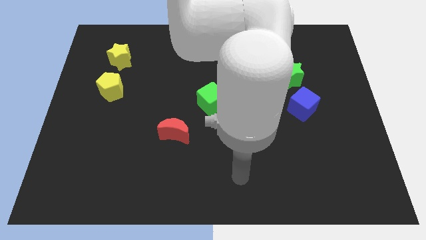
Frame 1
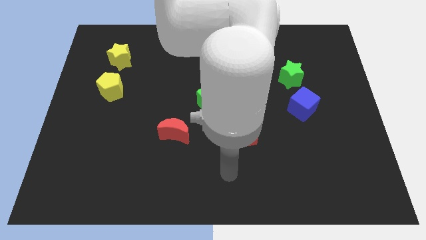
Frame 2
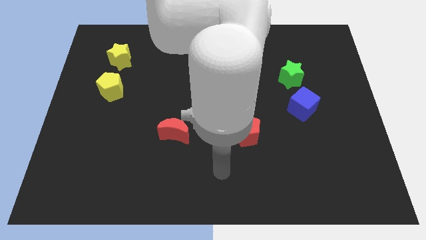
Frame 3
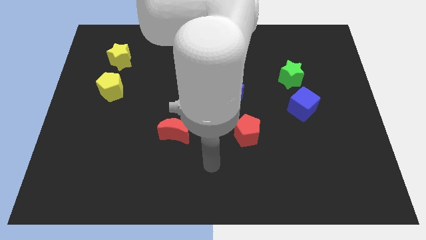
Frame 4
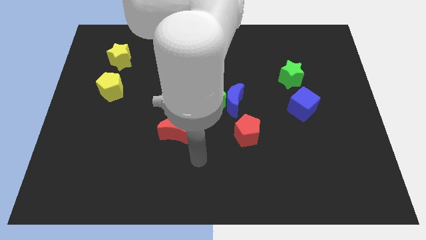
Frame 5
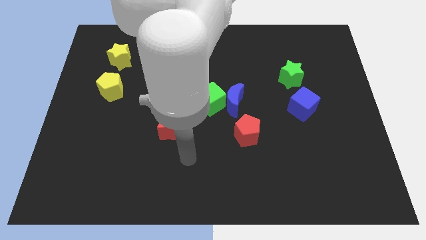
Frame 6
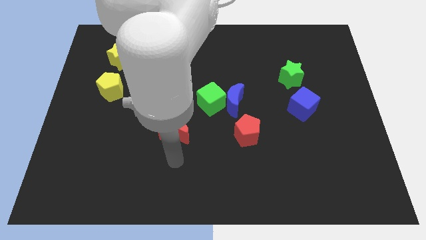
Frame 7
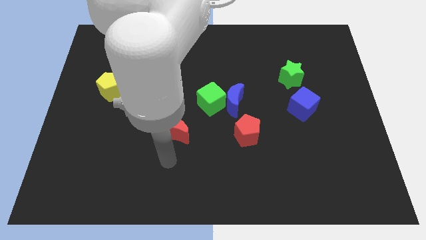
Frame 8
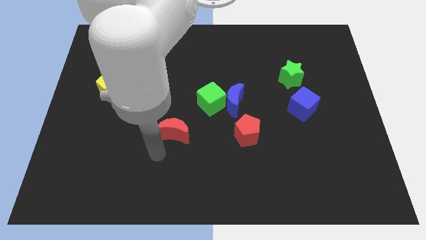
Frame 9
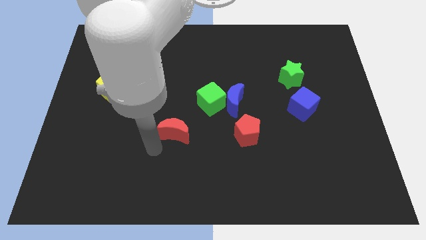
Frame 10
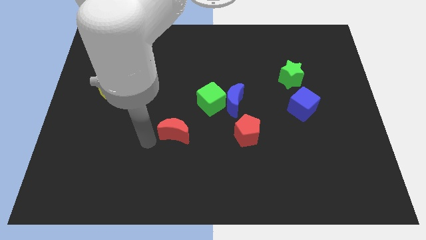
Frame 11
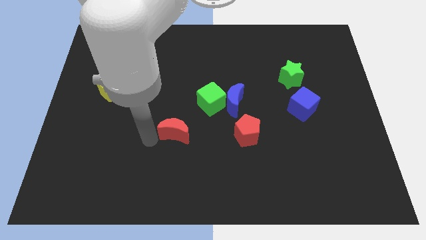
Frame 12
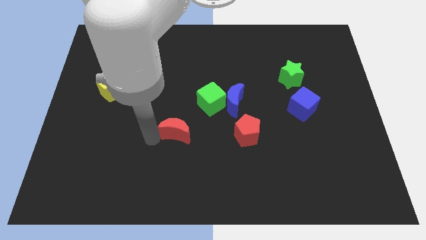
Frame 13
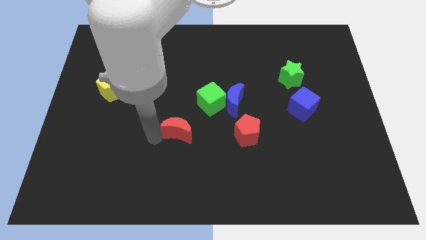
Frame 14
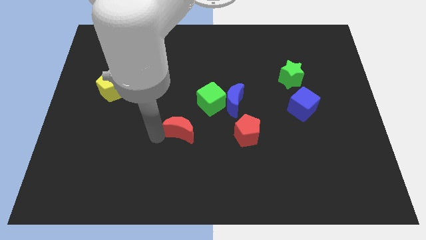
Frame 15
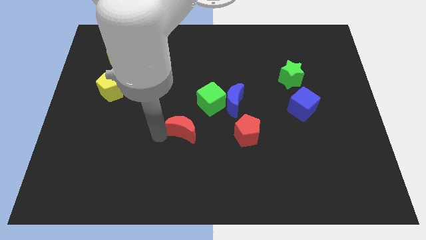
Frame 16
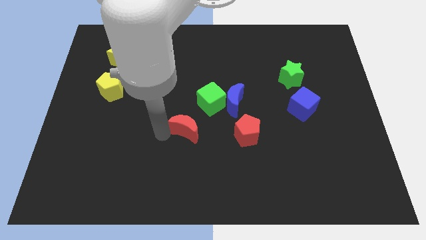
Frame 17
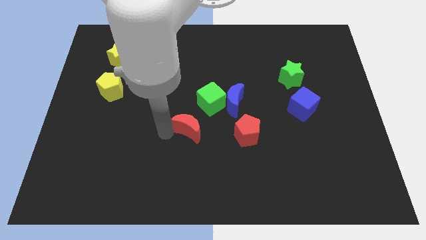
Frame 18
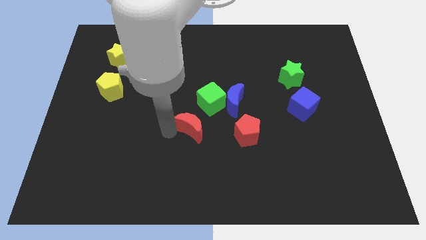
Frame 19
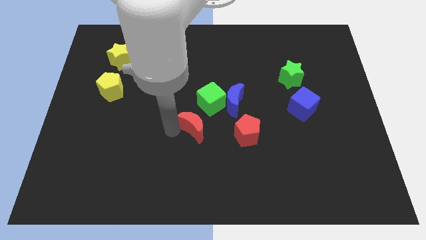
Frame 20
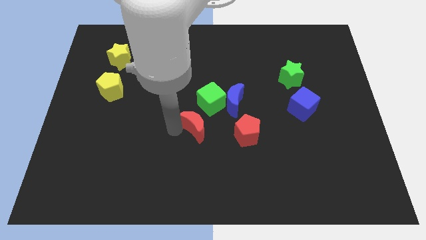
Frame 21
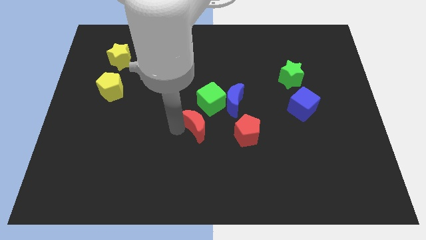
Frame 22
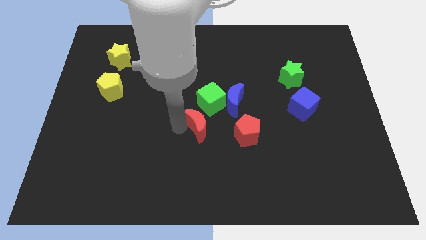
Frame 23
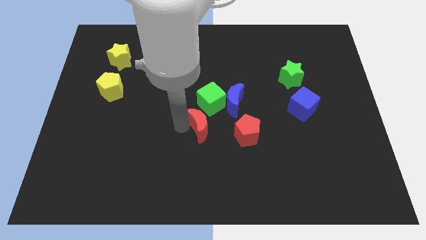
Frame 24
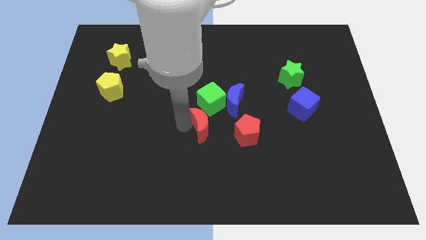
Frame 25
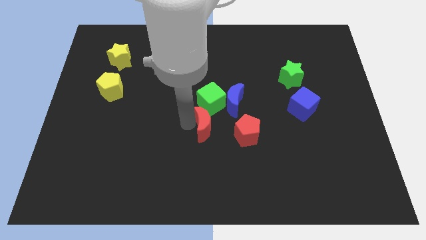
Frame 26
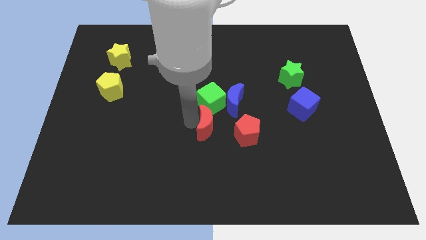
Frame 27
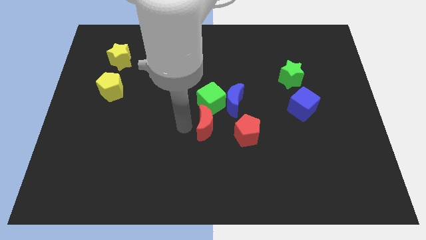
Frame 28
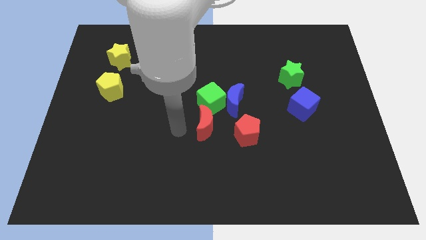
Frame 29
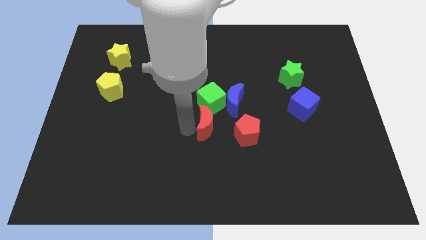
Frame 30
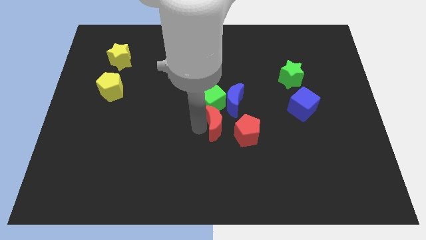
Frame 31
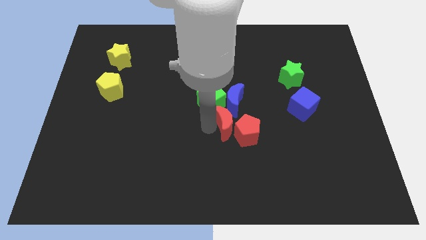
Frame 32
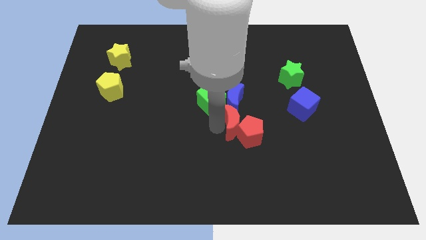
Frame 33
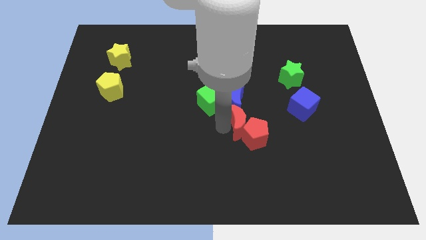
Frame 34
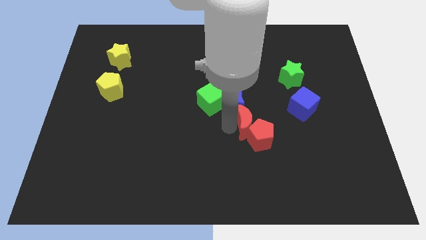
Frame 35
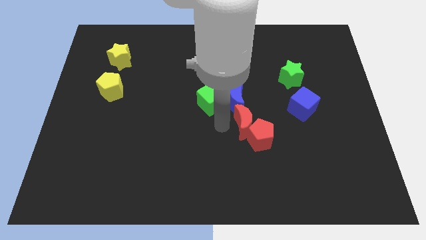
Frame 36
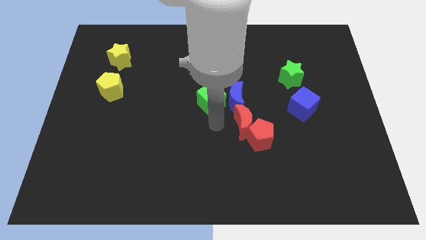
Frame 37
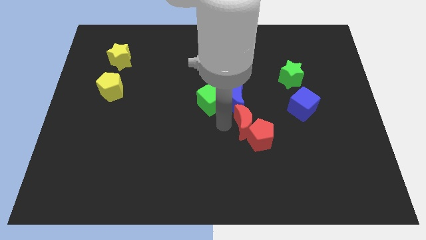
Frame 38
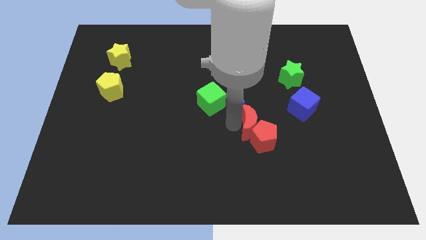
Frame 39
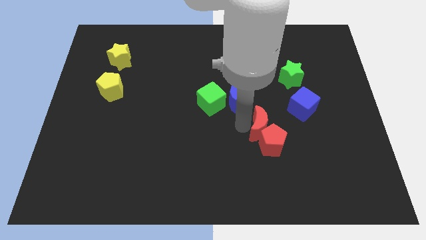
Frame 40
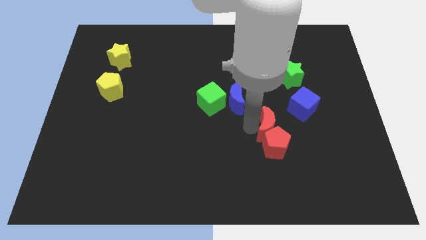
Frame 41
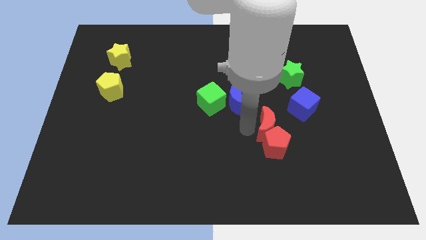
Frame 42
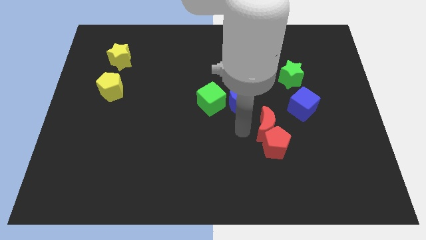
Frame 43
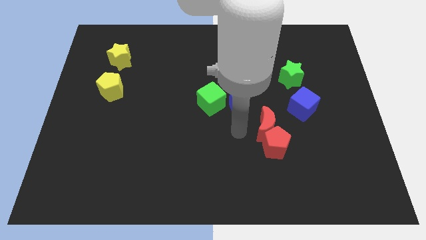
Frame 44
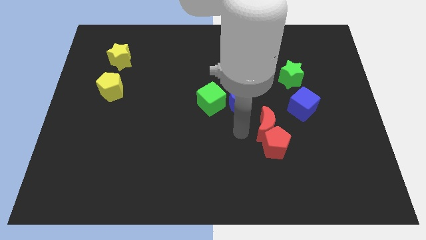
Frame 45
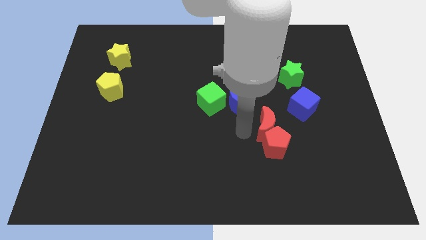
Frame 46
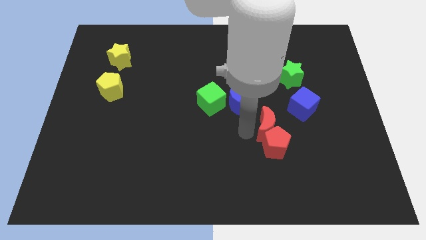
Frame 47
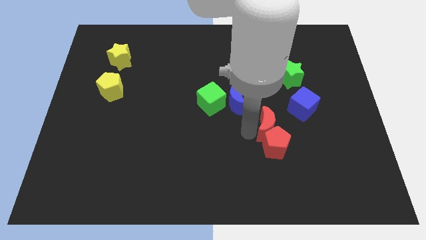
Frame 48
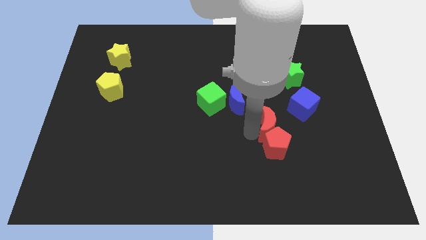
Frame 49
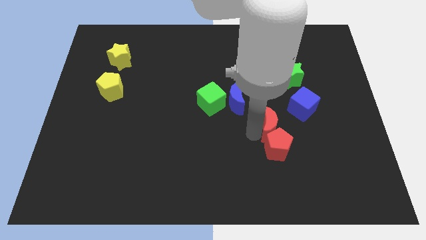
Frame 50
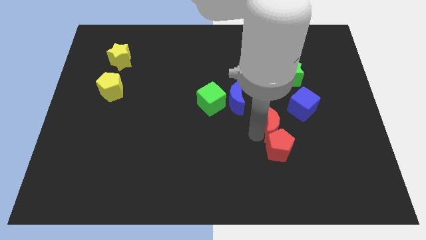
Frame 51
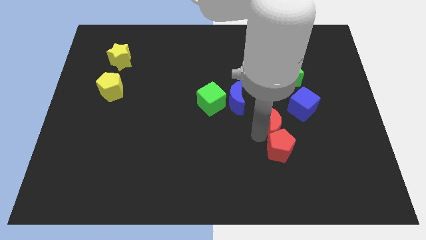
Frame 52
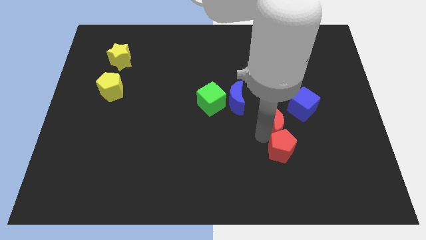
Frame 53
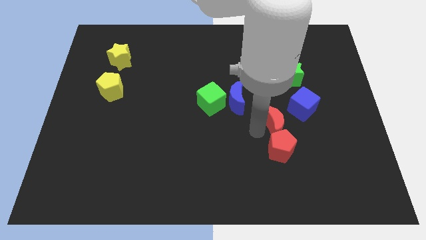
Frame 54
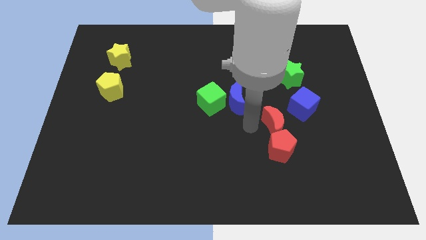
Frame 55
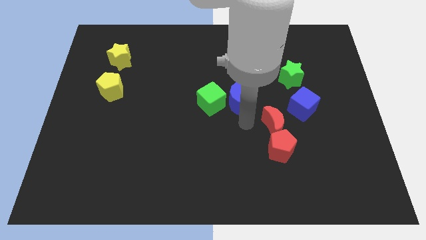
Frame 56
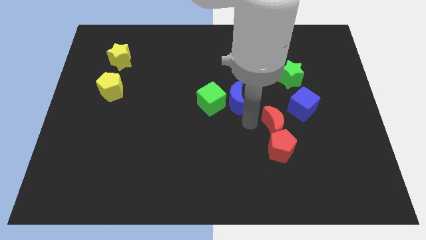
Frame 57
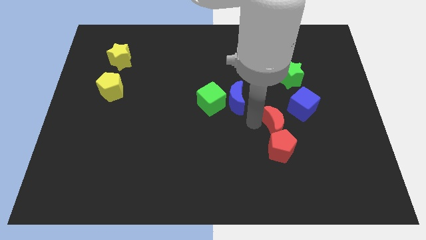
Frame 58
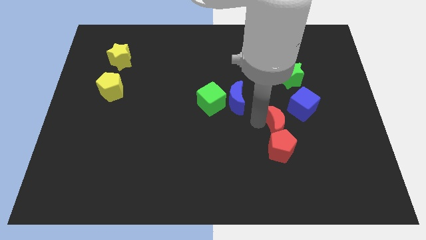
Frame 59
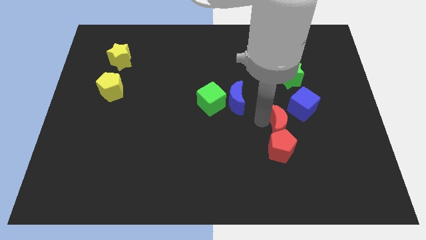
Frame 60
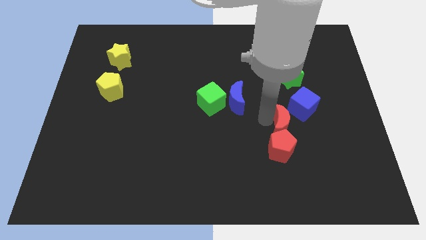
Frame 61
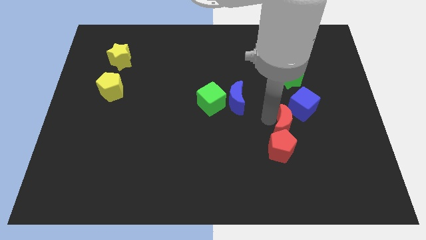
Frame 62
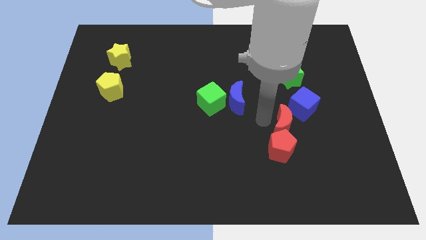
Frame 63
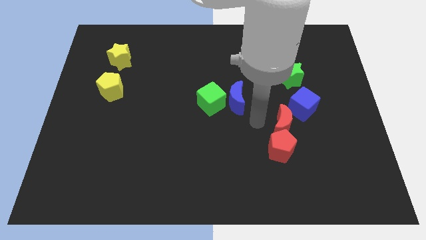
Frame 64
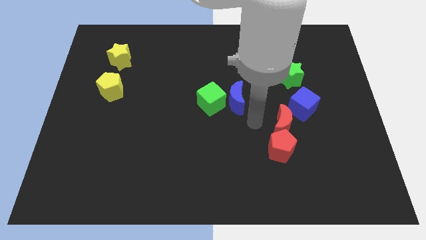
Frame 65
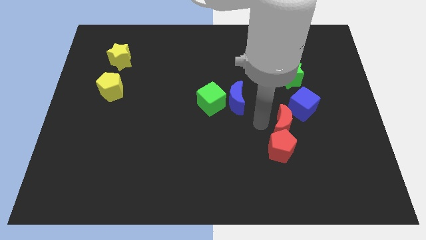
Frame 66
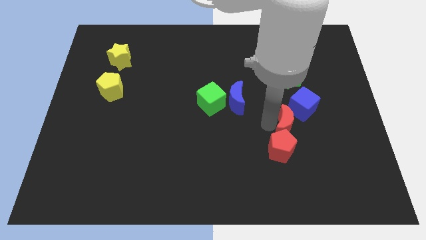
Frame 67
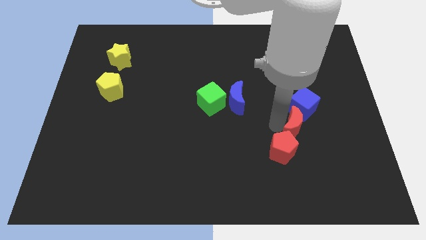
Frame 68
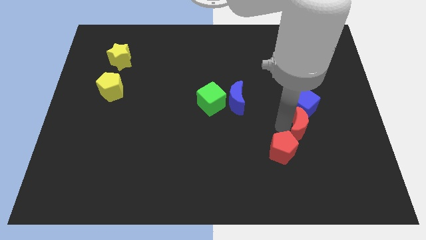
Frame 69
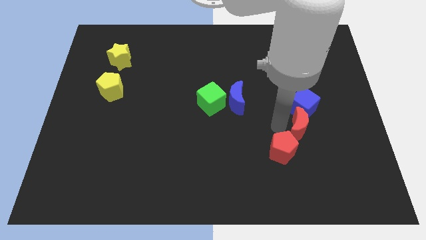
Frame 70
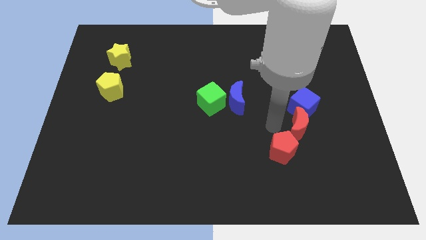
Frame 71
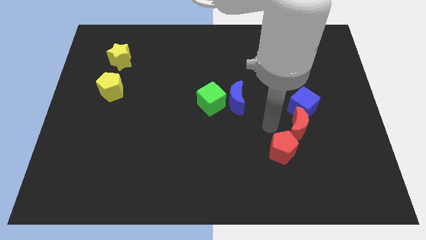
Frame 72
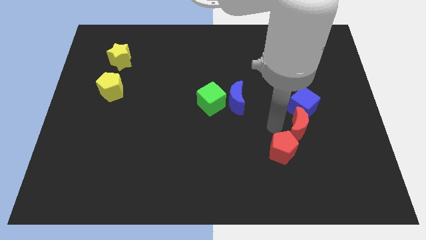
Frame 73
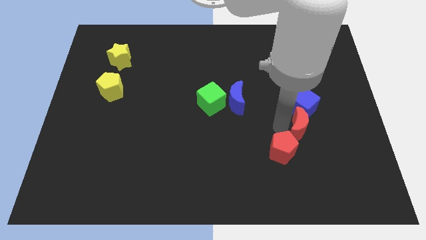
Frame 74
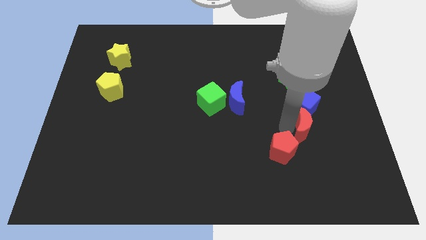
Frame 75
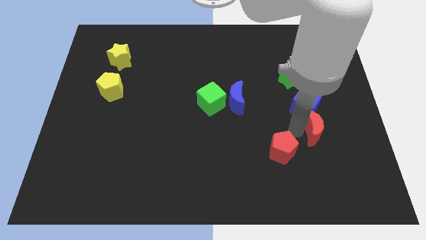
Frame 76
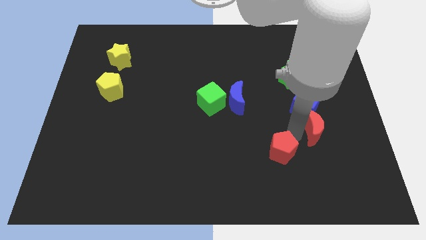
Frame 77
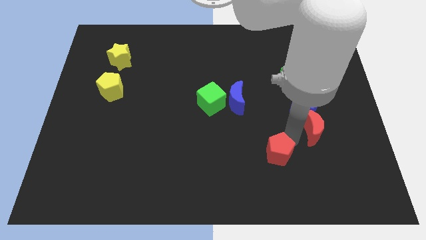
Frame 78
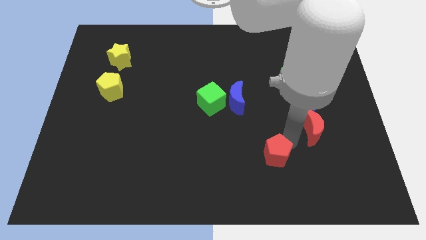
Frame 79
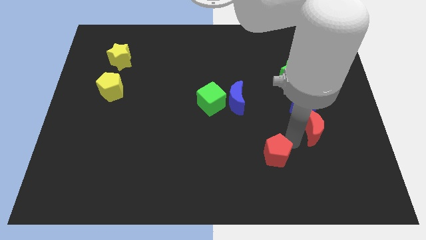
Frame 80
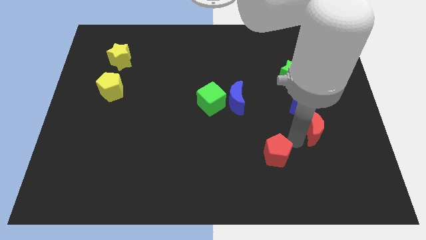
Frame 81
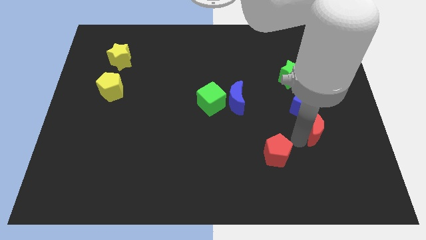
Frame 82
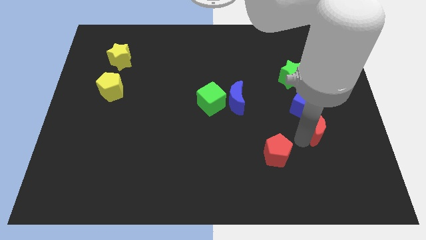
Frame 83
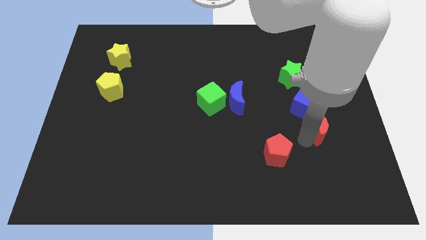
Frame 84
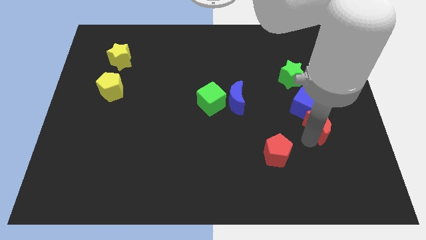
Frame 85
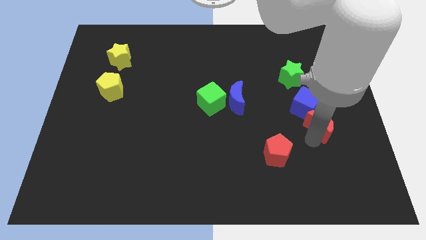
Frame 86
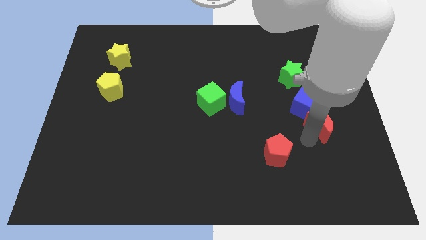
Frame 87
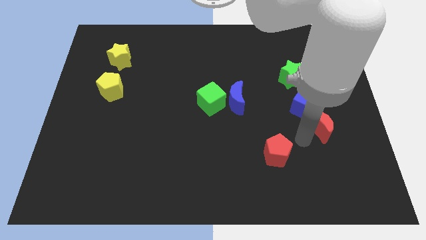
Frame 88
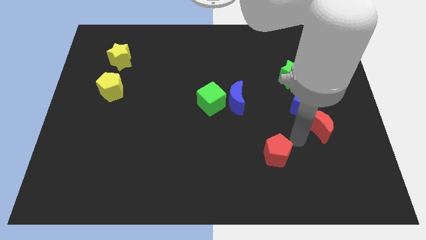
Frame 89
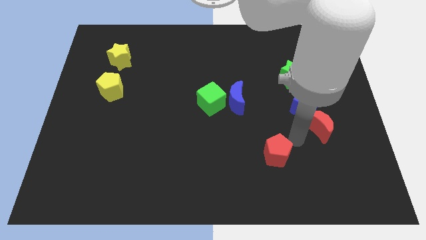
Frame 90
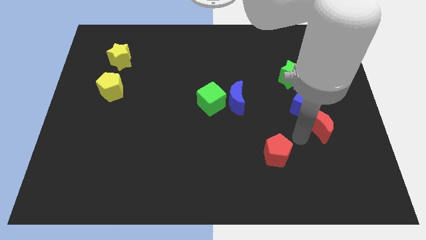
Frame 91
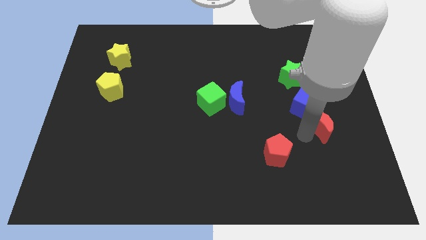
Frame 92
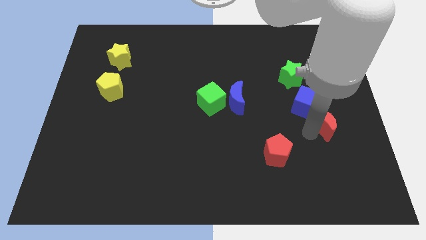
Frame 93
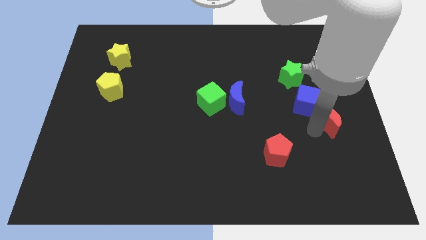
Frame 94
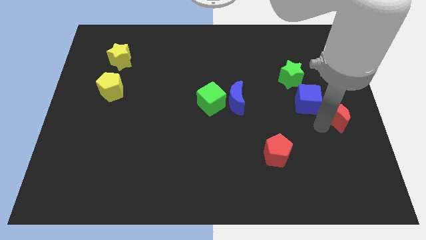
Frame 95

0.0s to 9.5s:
put the red moon to the center right
